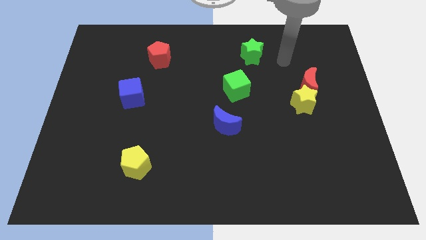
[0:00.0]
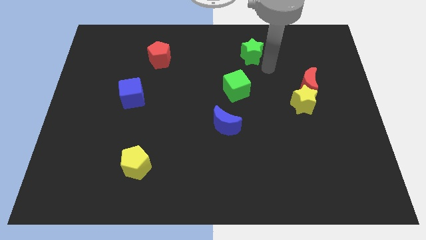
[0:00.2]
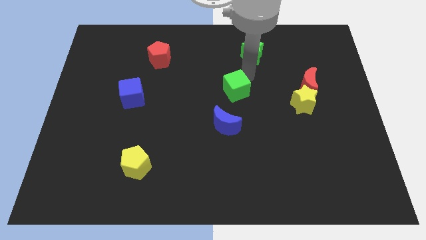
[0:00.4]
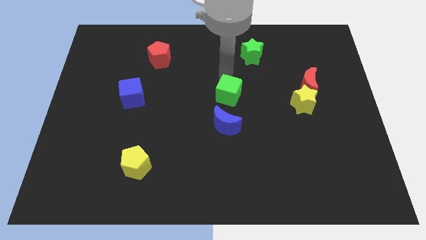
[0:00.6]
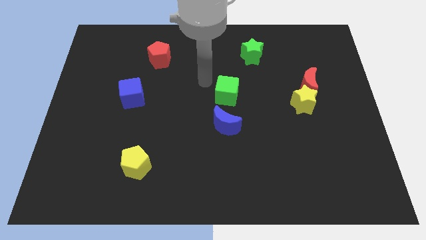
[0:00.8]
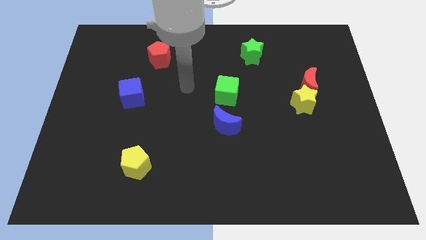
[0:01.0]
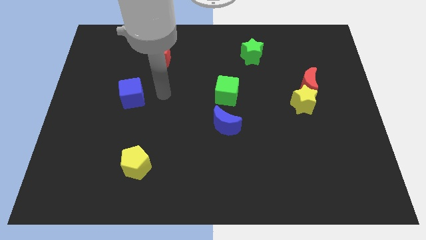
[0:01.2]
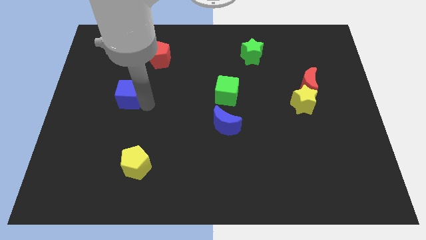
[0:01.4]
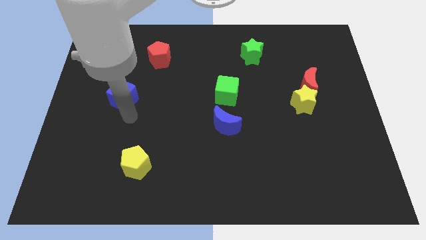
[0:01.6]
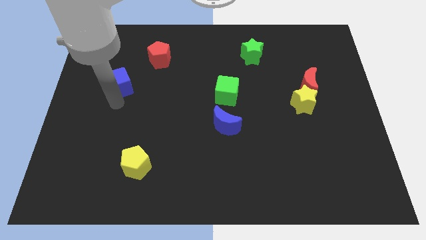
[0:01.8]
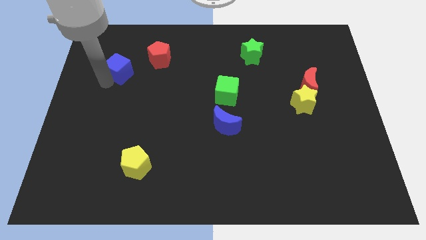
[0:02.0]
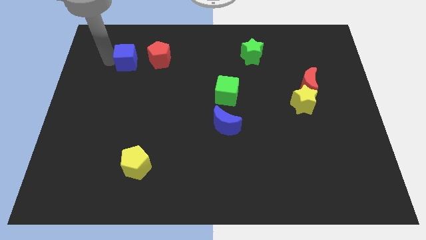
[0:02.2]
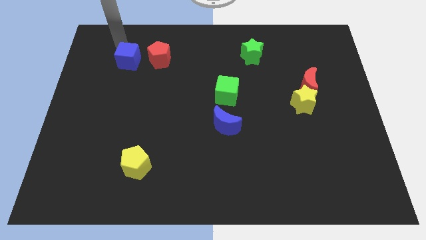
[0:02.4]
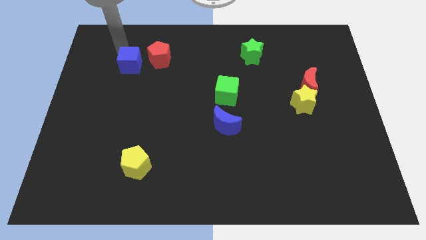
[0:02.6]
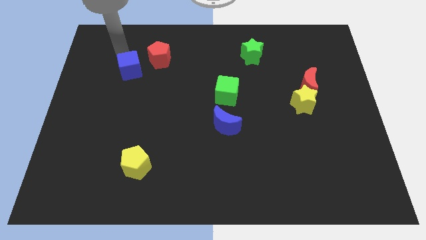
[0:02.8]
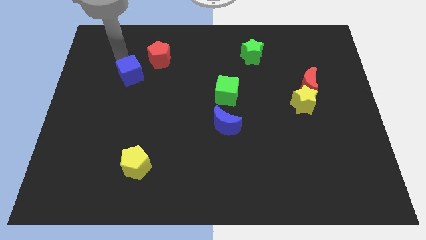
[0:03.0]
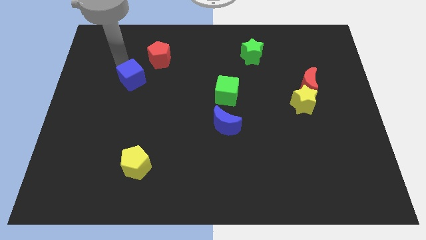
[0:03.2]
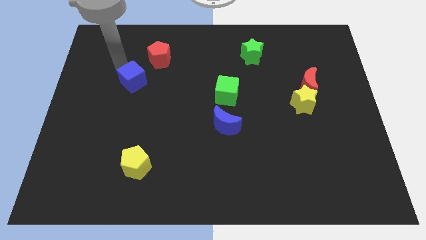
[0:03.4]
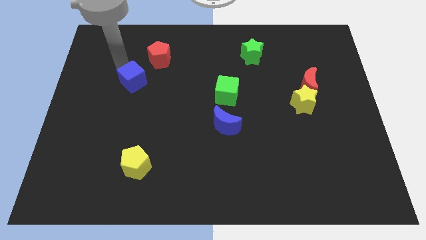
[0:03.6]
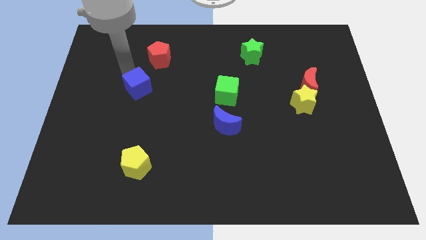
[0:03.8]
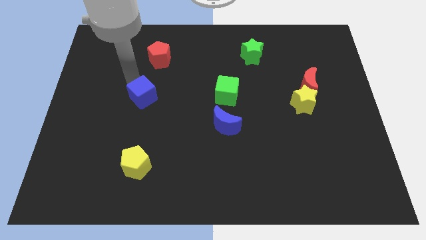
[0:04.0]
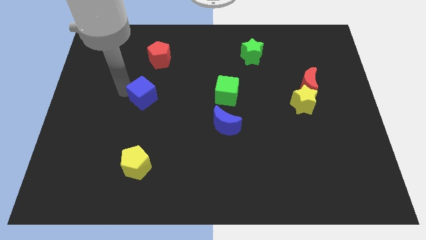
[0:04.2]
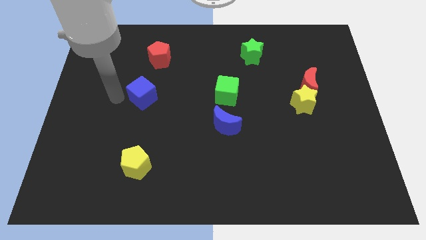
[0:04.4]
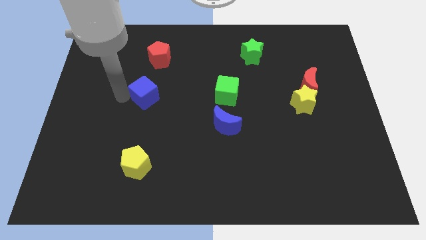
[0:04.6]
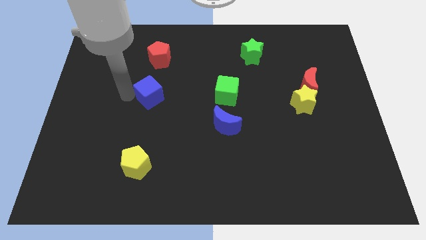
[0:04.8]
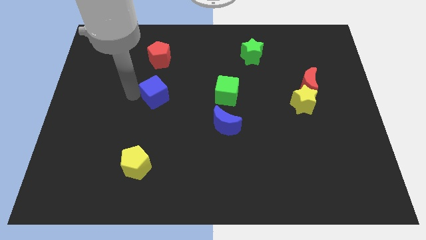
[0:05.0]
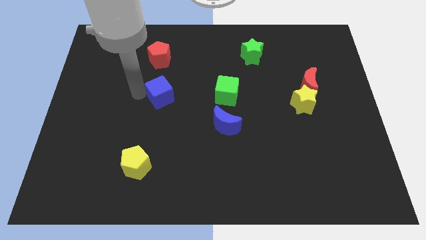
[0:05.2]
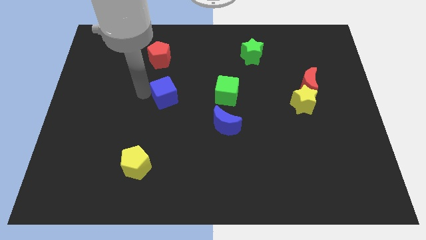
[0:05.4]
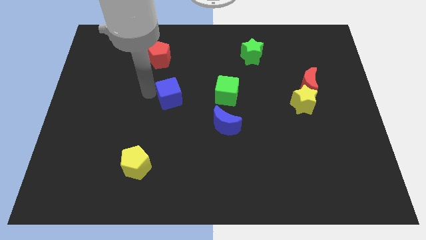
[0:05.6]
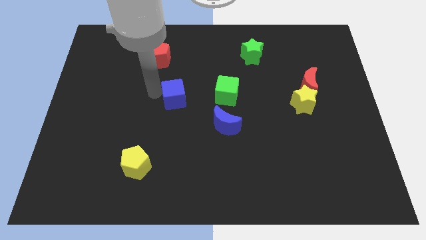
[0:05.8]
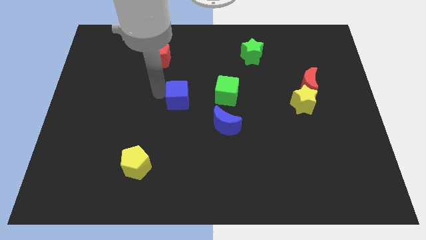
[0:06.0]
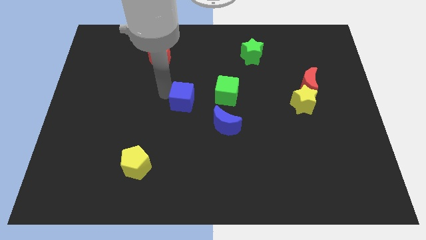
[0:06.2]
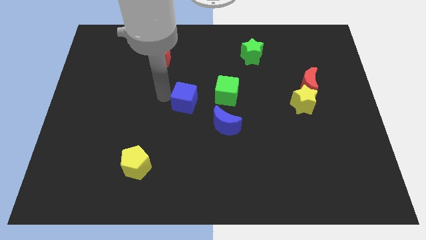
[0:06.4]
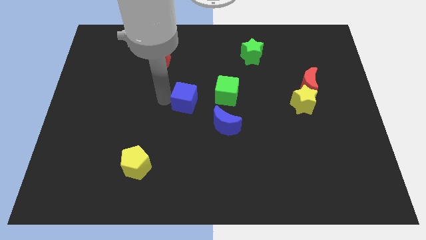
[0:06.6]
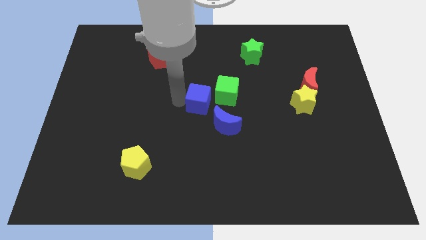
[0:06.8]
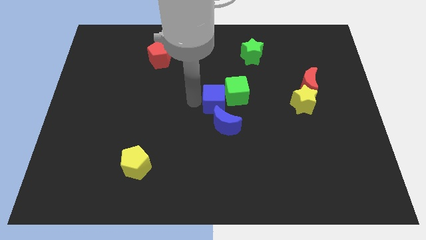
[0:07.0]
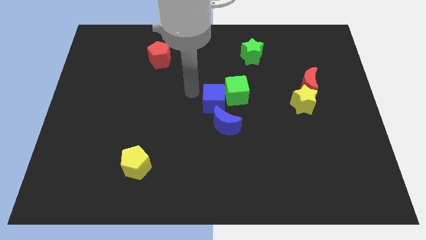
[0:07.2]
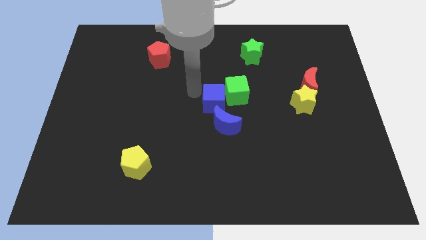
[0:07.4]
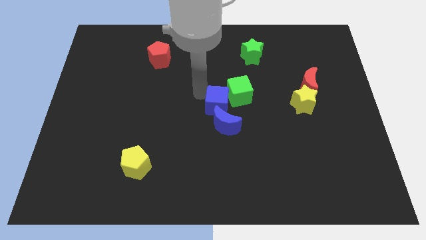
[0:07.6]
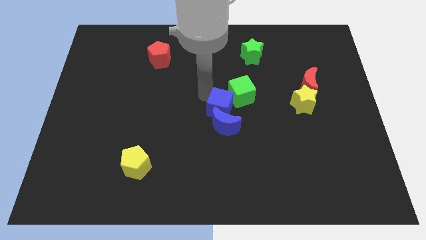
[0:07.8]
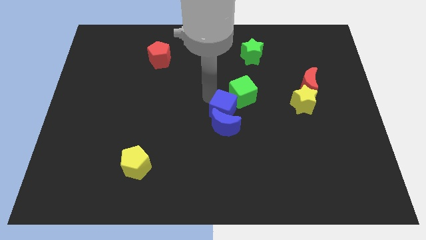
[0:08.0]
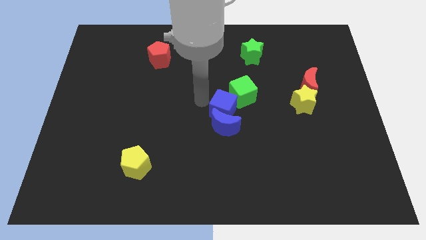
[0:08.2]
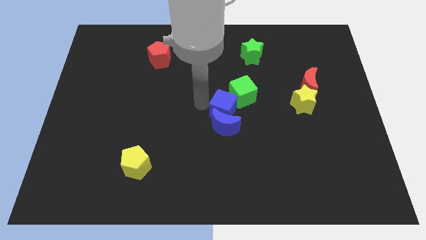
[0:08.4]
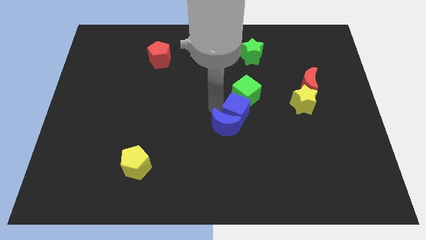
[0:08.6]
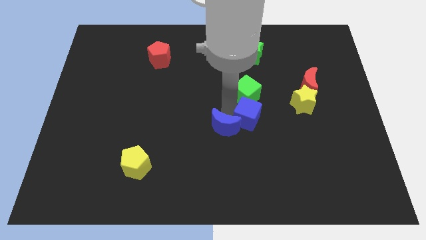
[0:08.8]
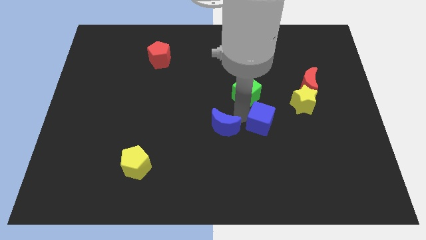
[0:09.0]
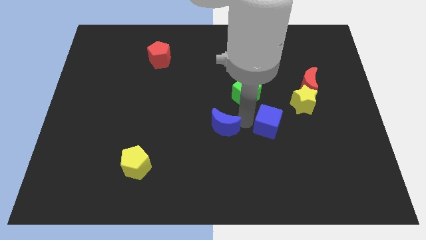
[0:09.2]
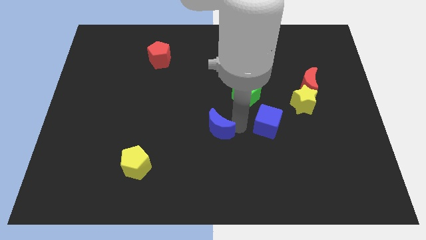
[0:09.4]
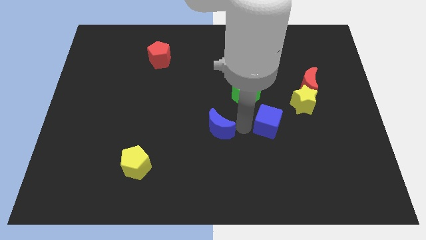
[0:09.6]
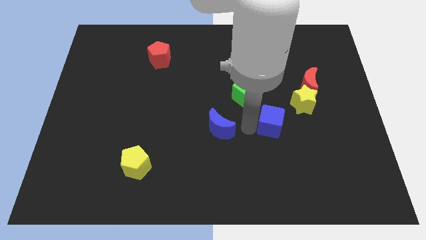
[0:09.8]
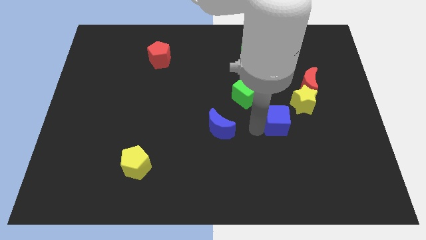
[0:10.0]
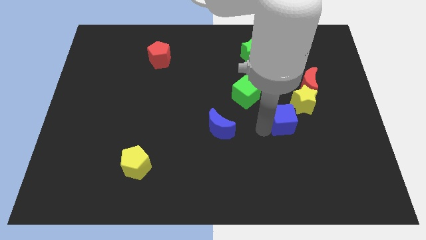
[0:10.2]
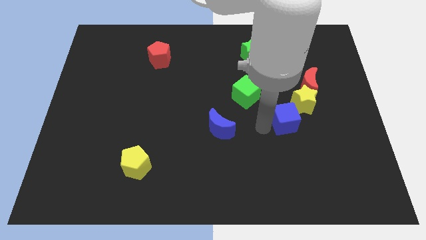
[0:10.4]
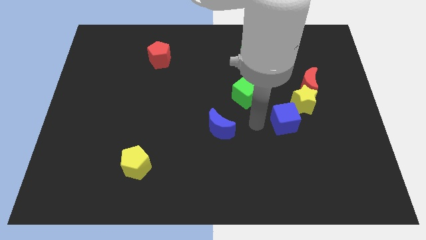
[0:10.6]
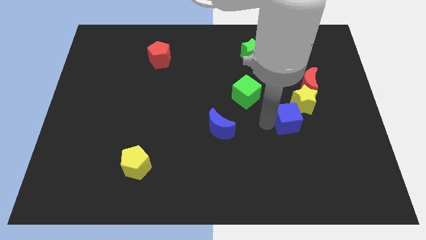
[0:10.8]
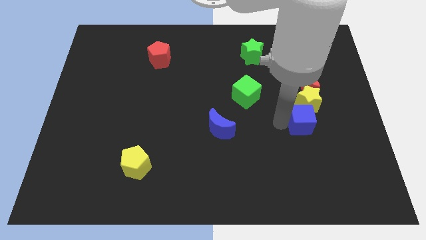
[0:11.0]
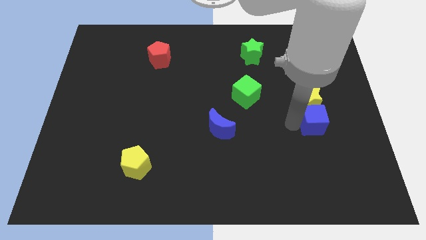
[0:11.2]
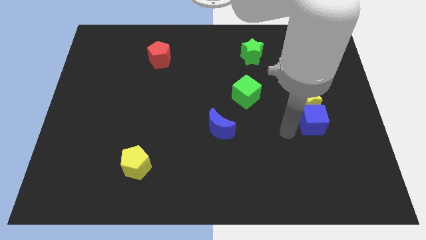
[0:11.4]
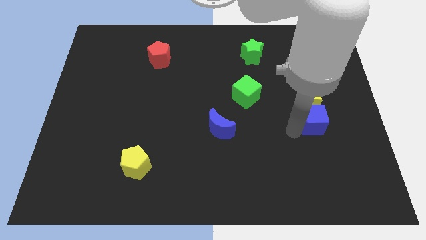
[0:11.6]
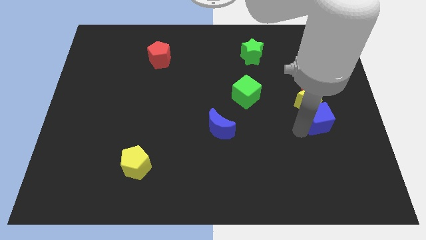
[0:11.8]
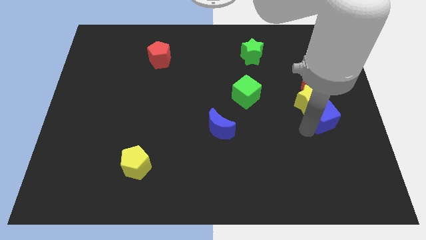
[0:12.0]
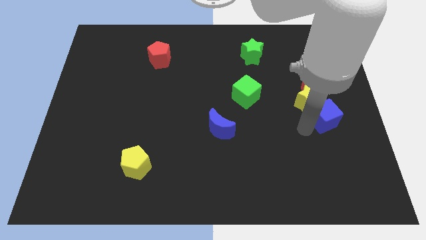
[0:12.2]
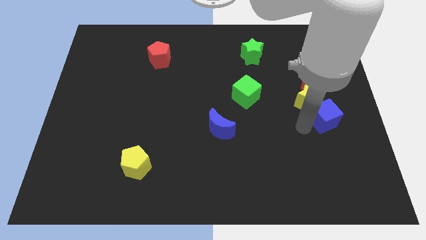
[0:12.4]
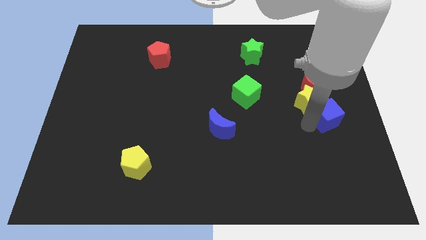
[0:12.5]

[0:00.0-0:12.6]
push the blue cube to the right side of the board
